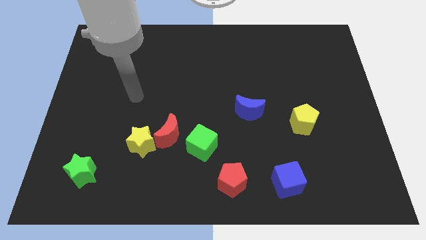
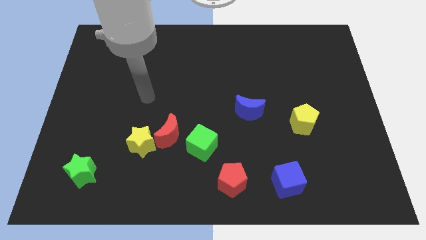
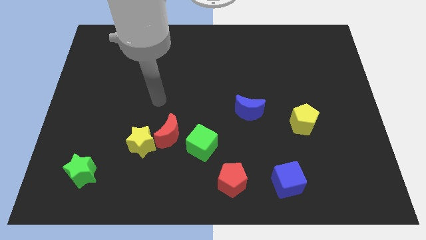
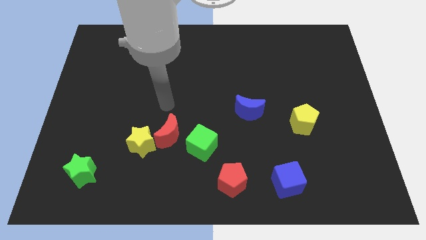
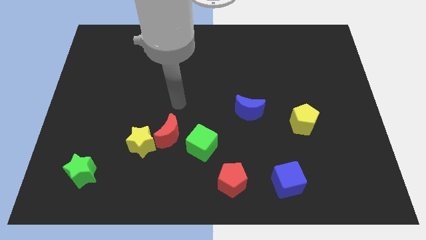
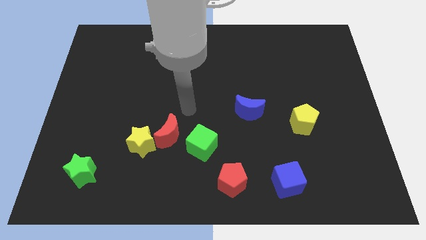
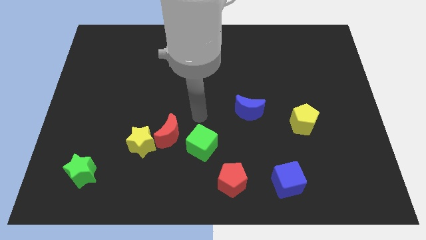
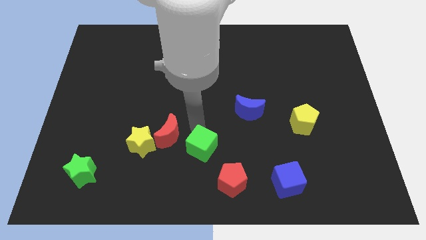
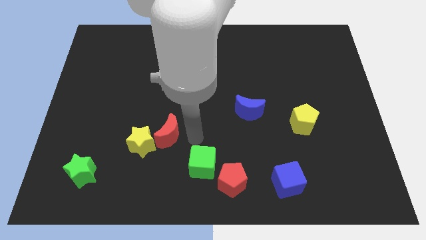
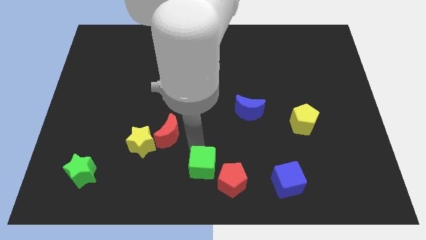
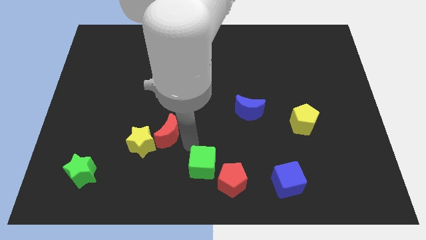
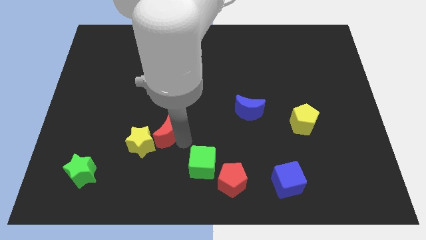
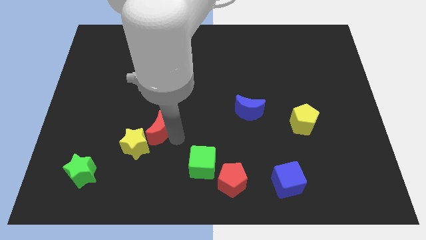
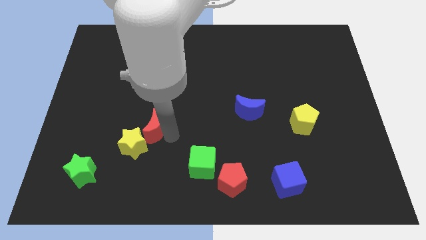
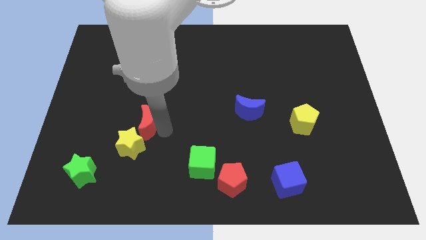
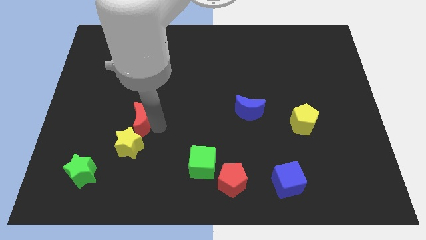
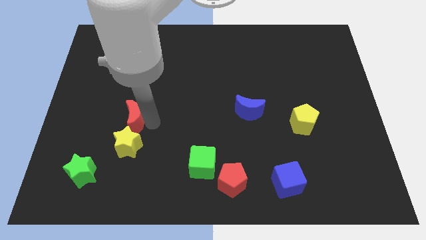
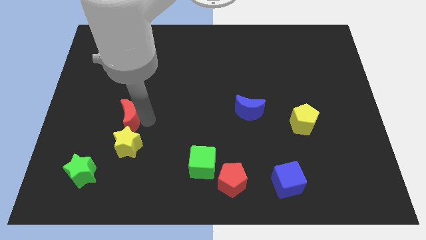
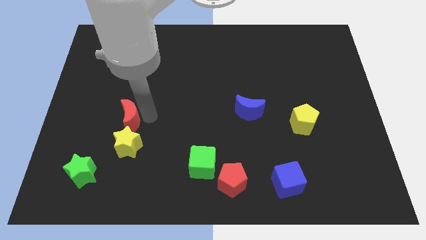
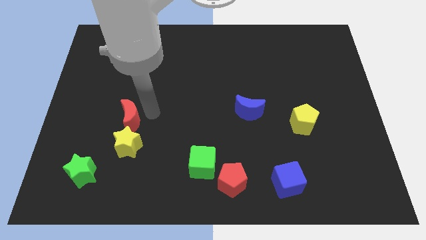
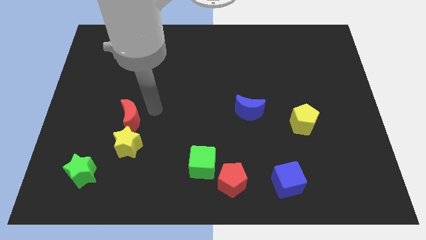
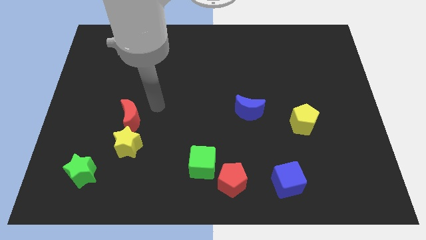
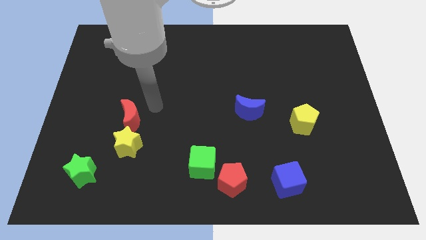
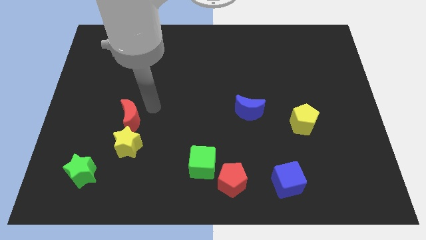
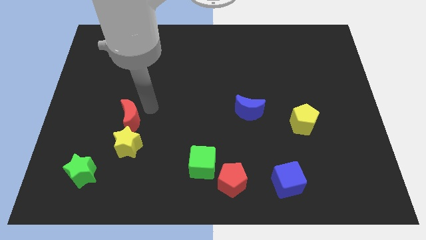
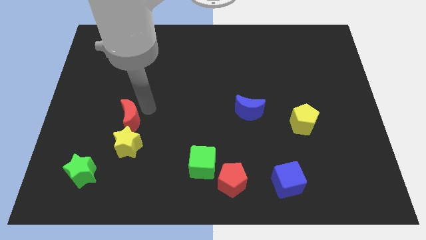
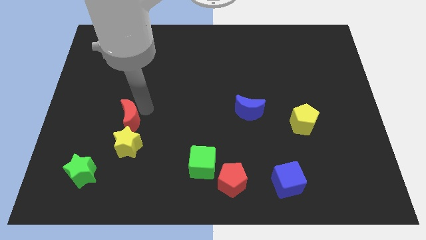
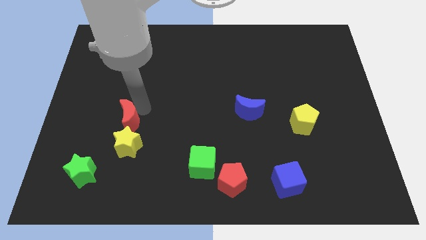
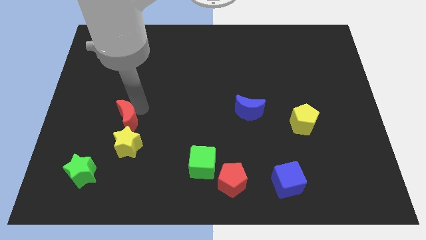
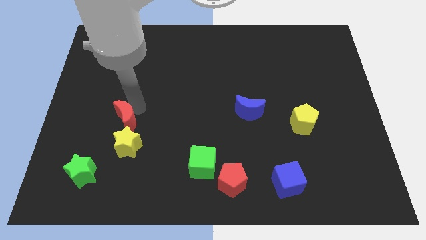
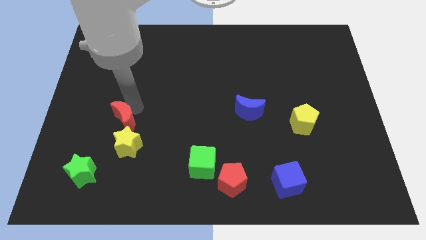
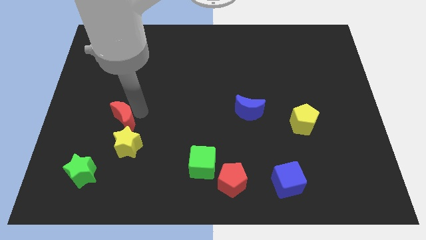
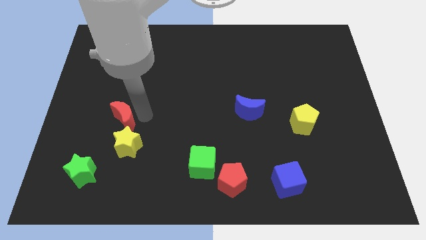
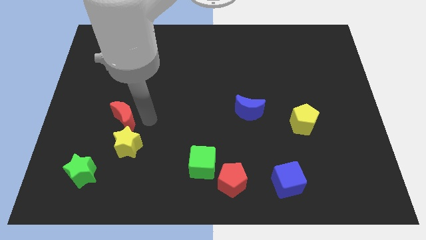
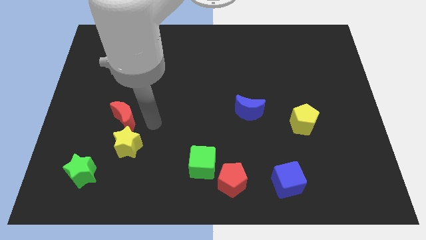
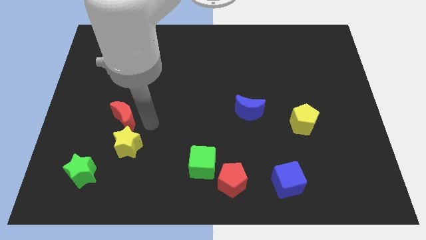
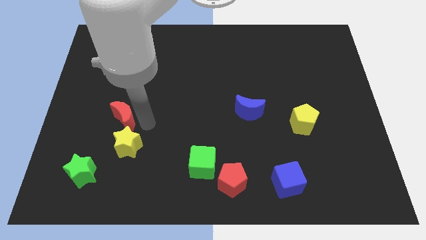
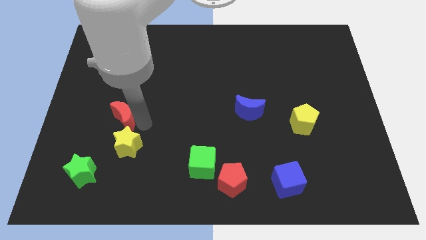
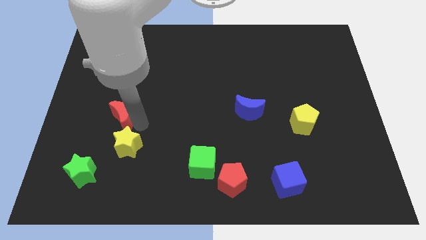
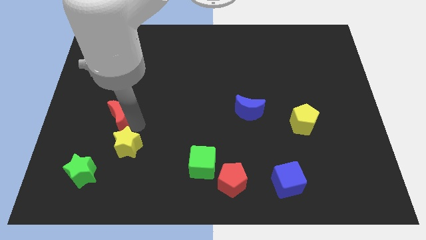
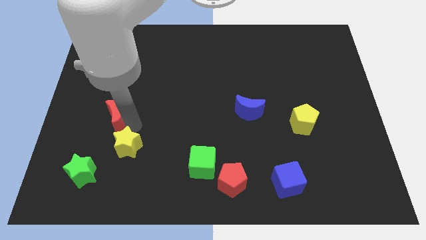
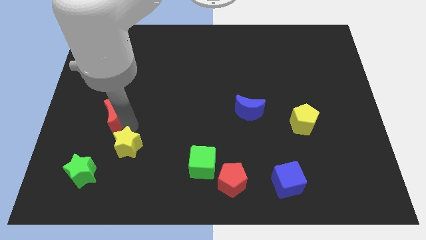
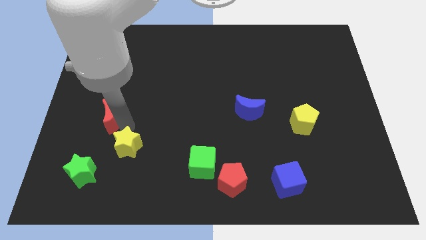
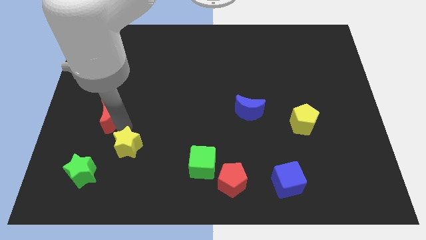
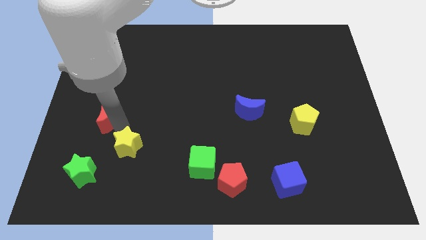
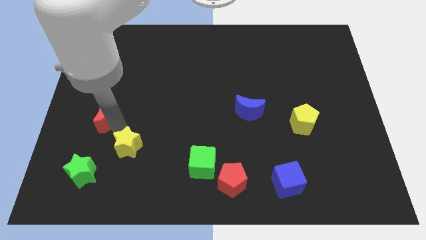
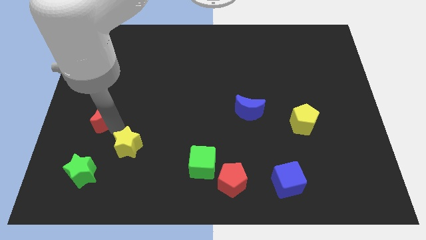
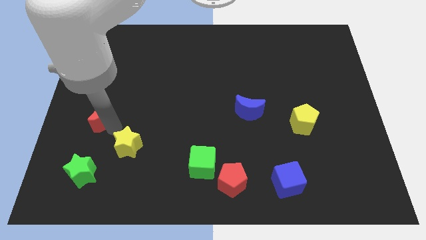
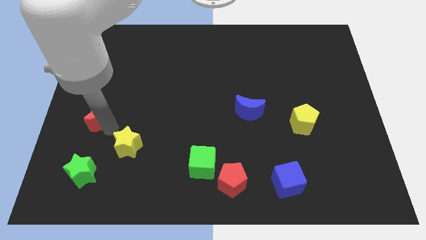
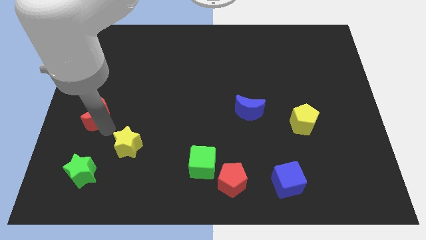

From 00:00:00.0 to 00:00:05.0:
move the red moon to the left side

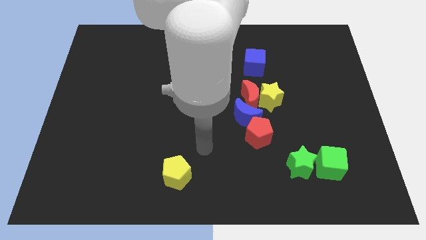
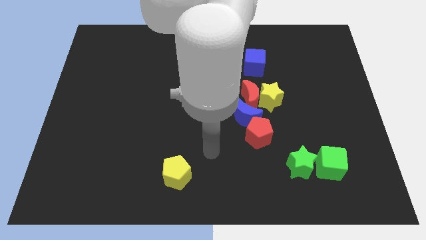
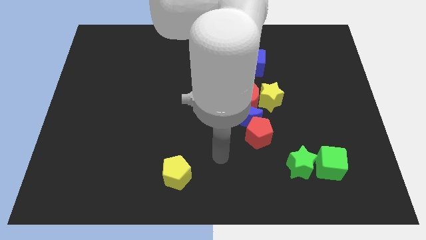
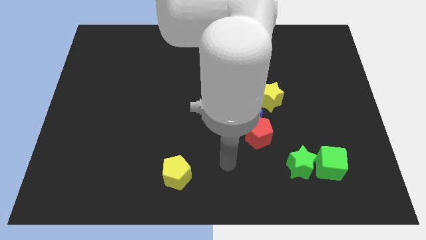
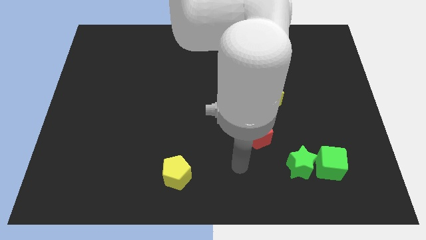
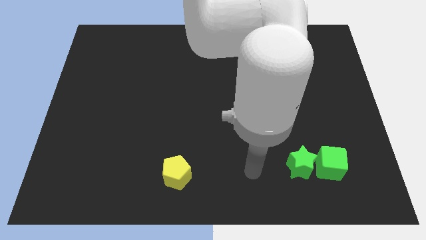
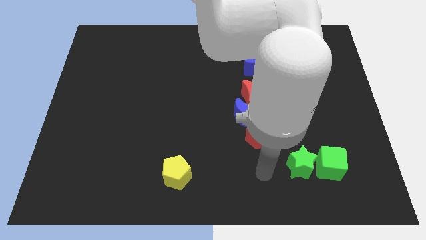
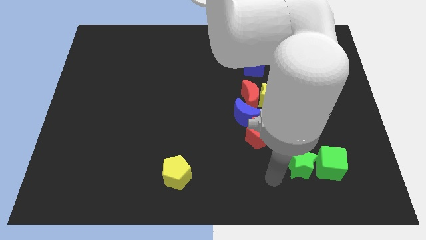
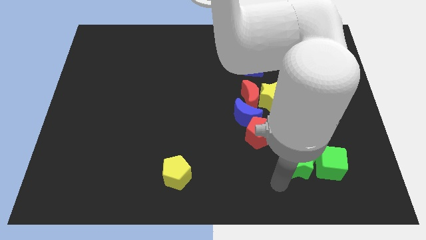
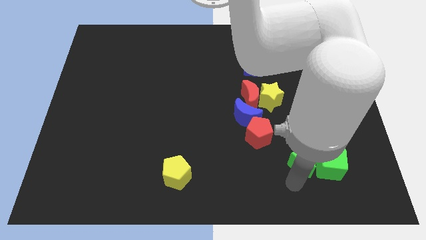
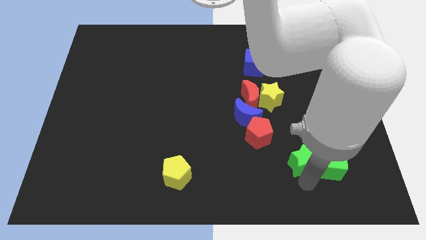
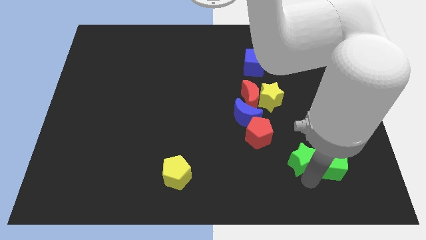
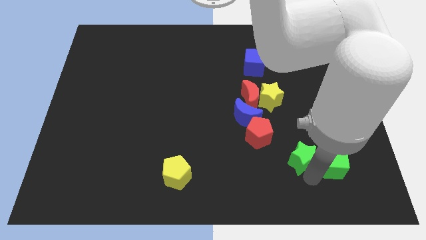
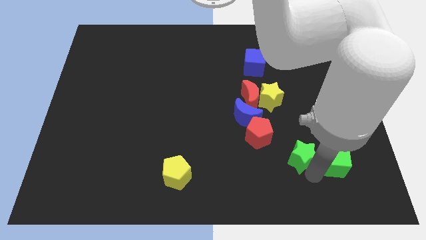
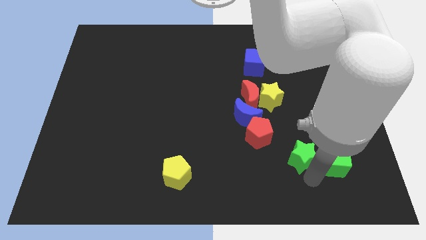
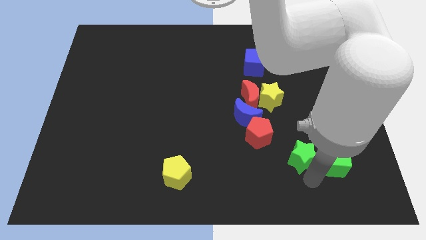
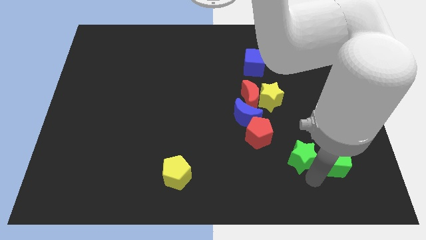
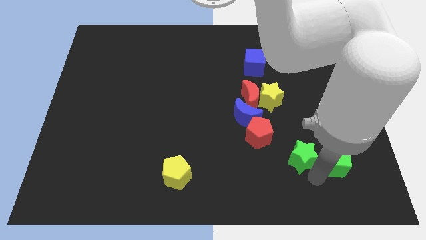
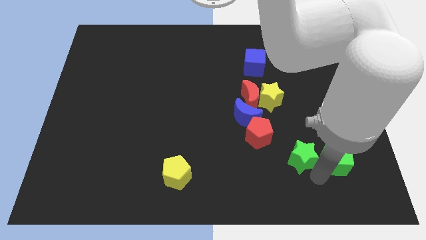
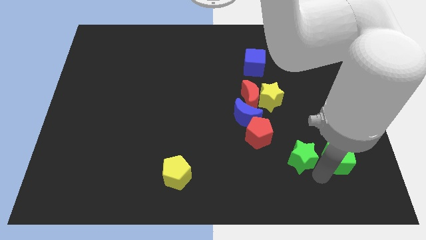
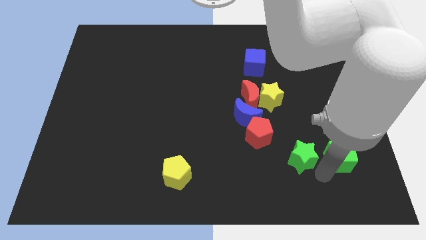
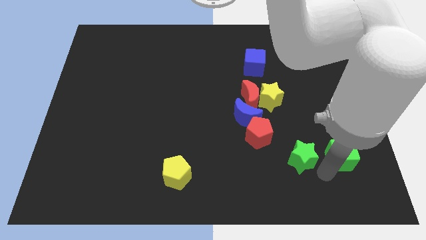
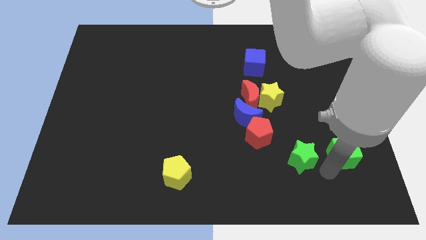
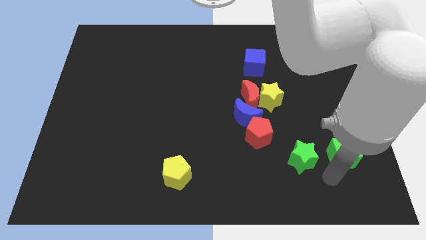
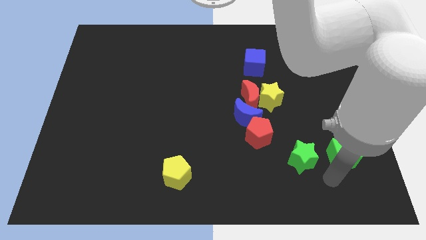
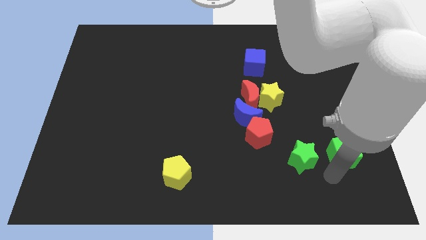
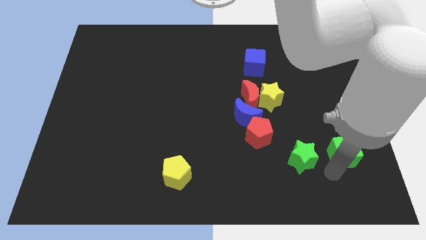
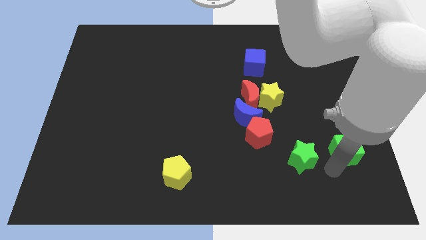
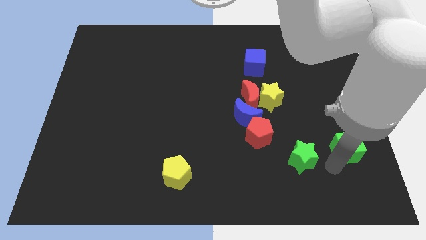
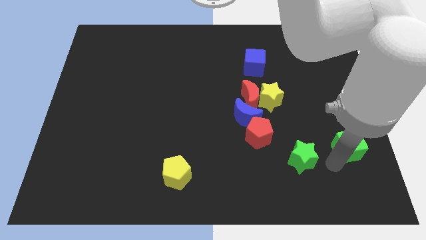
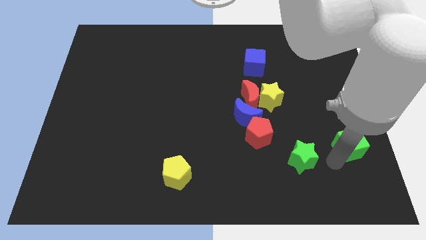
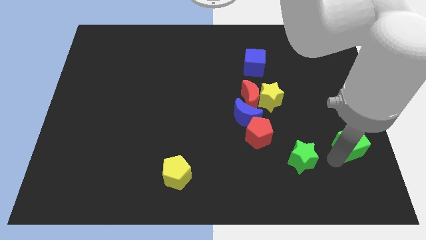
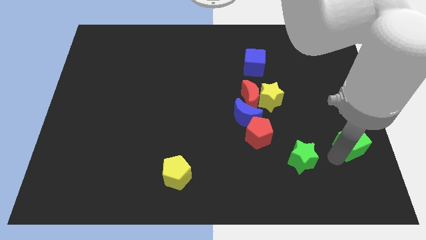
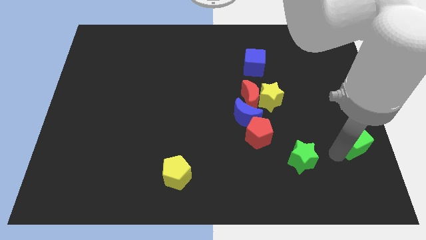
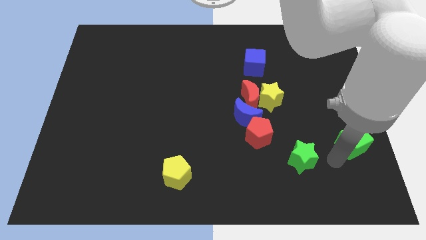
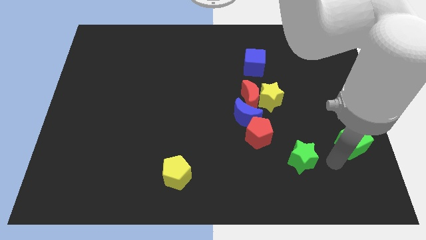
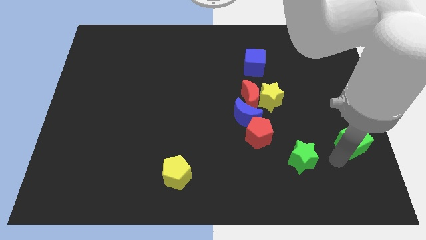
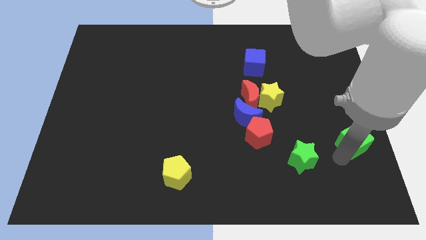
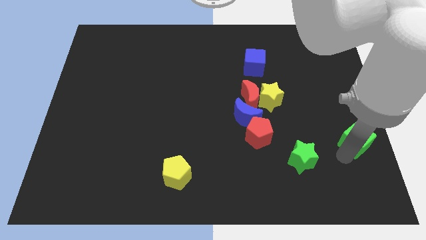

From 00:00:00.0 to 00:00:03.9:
put the green cube to the right side of the board
